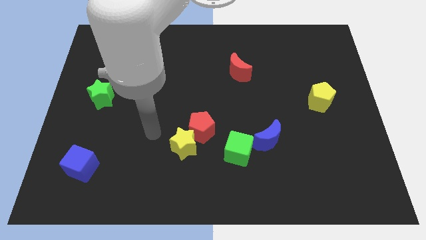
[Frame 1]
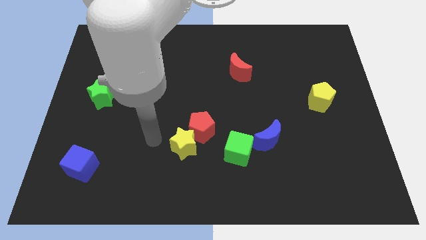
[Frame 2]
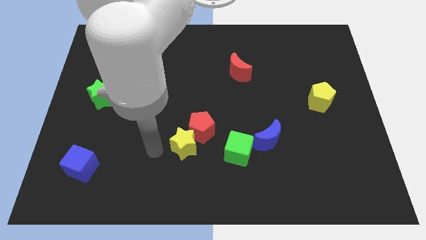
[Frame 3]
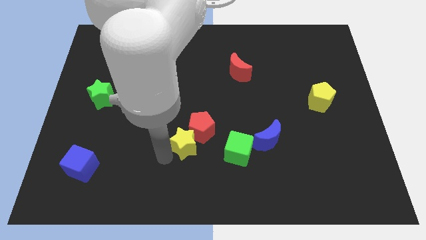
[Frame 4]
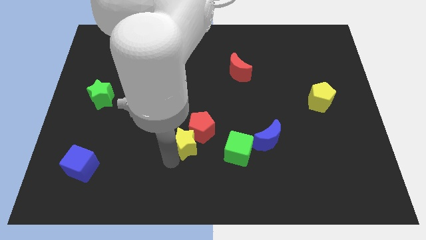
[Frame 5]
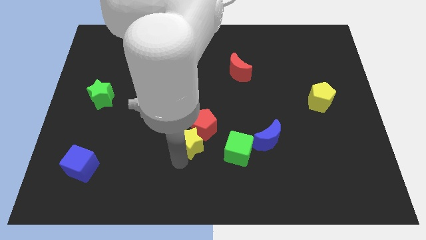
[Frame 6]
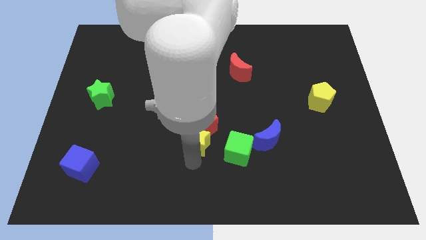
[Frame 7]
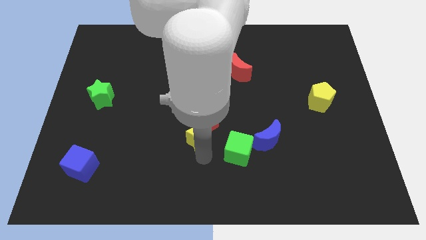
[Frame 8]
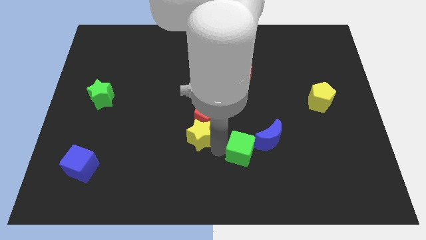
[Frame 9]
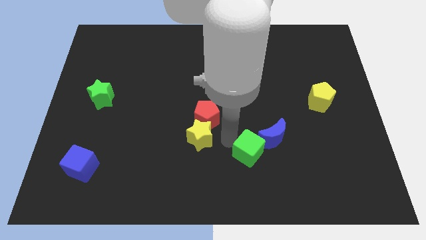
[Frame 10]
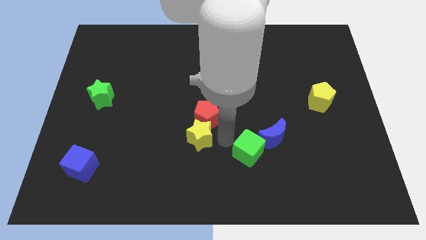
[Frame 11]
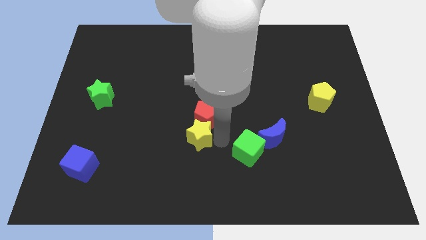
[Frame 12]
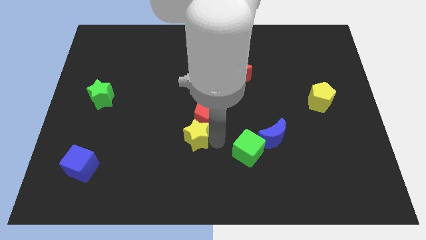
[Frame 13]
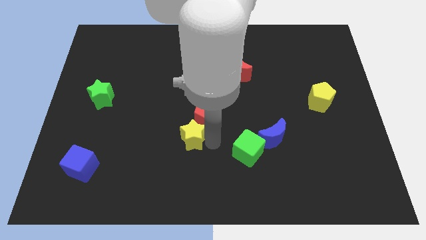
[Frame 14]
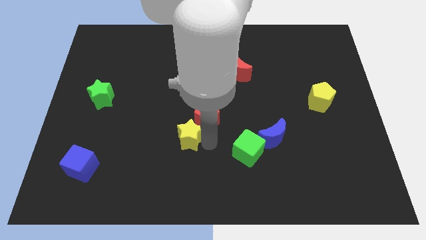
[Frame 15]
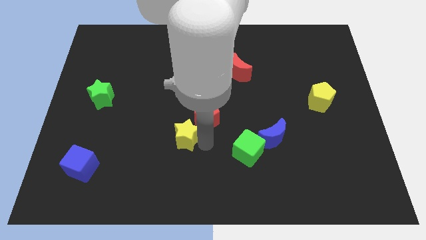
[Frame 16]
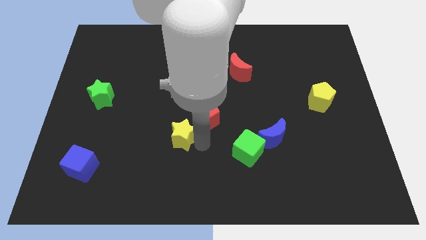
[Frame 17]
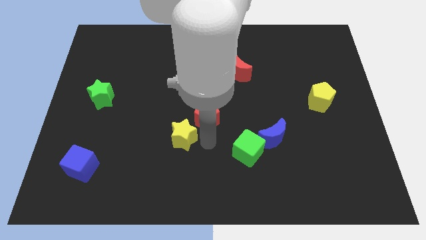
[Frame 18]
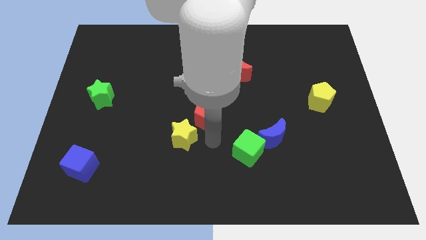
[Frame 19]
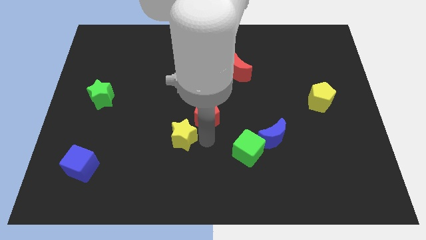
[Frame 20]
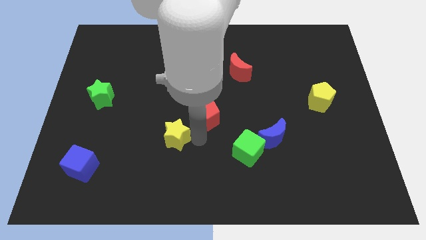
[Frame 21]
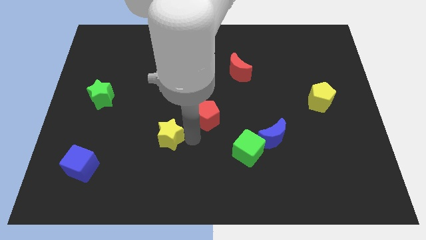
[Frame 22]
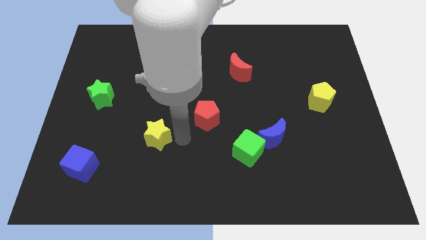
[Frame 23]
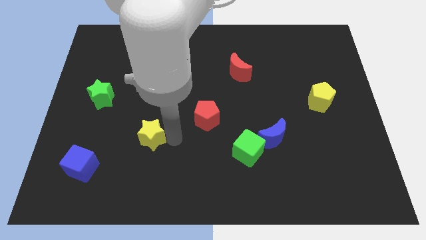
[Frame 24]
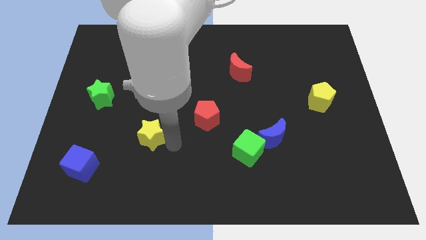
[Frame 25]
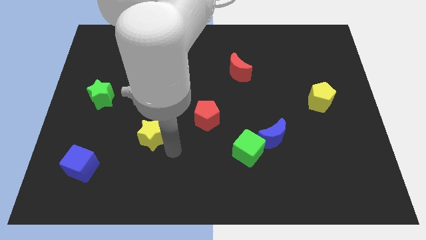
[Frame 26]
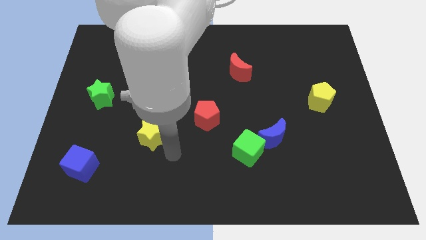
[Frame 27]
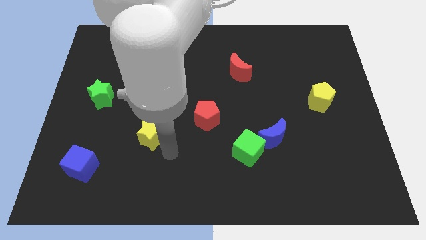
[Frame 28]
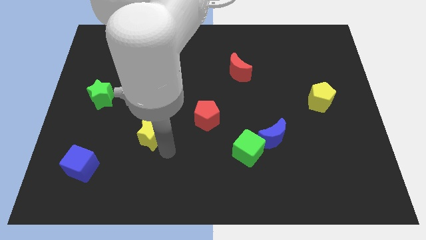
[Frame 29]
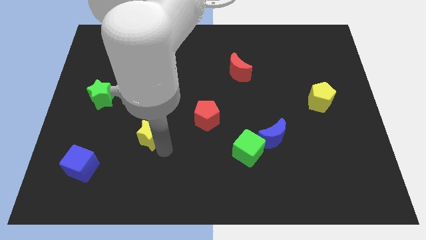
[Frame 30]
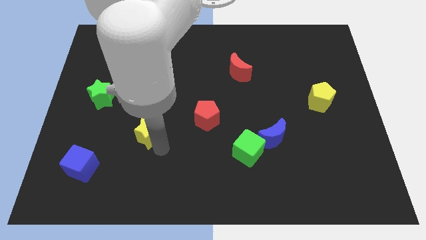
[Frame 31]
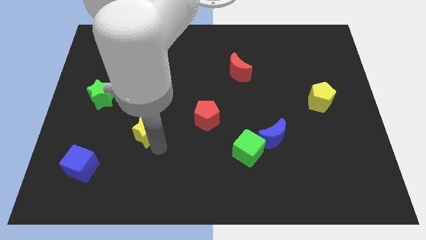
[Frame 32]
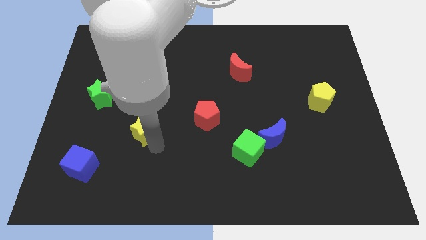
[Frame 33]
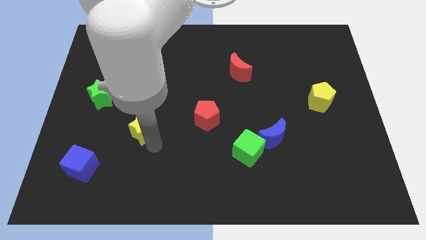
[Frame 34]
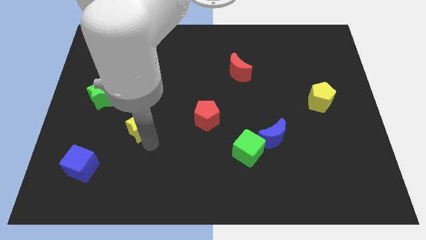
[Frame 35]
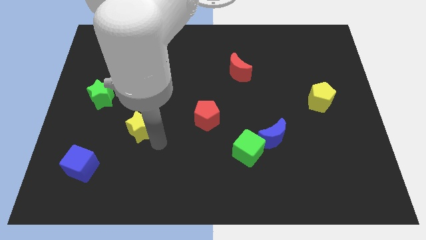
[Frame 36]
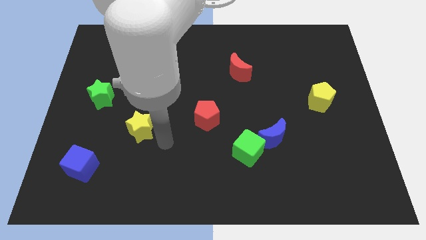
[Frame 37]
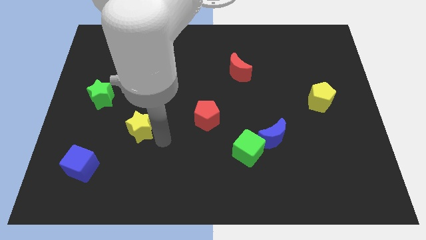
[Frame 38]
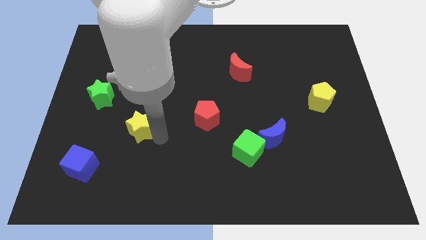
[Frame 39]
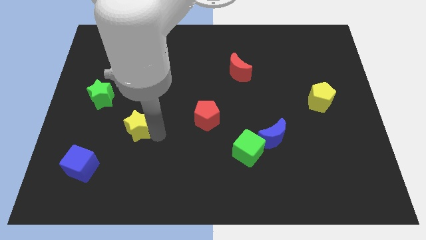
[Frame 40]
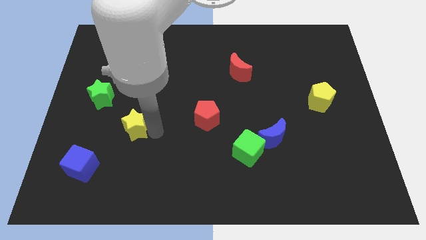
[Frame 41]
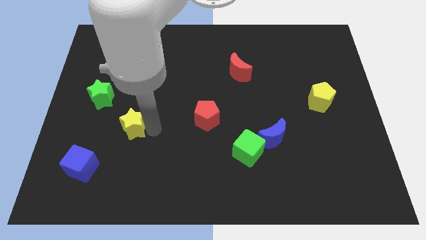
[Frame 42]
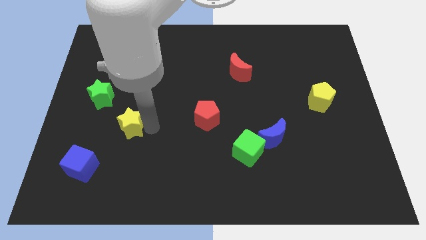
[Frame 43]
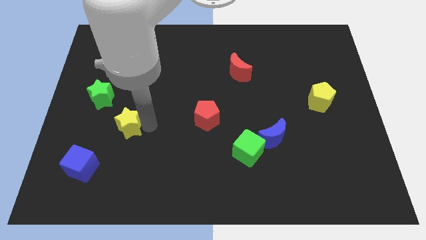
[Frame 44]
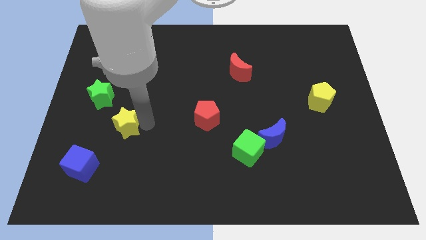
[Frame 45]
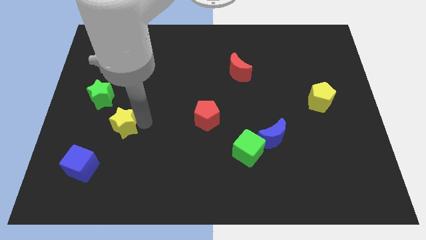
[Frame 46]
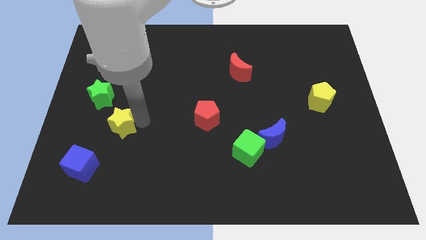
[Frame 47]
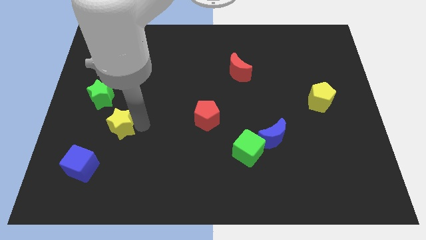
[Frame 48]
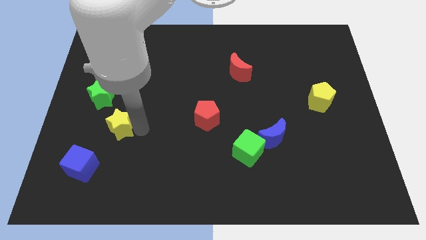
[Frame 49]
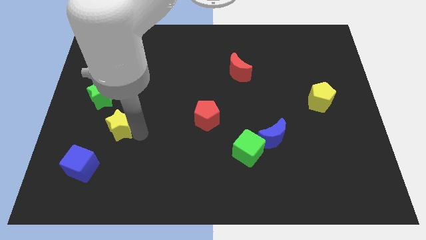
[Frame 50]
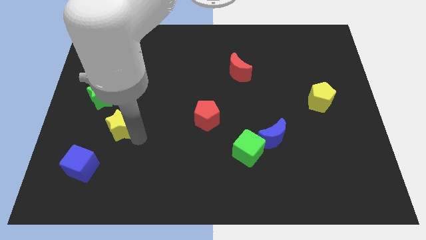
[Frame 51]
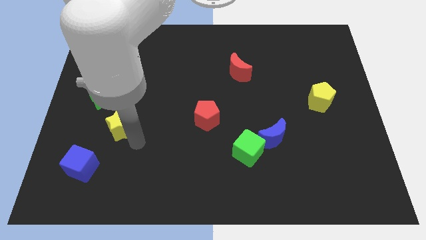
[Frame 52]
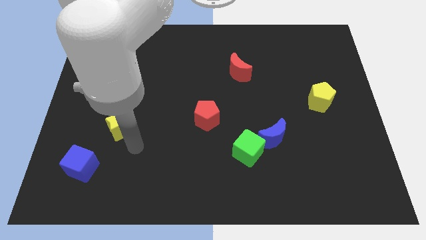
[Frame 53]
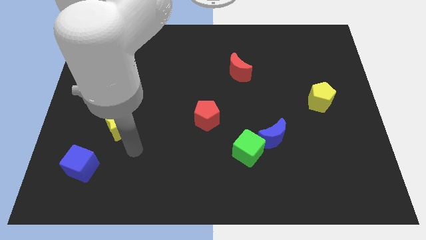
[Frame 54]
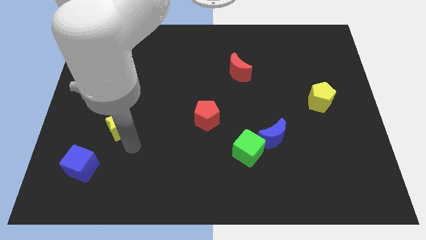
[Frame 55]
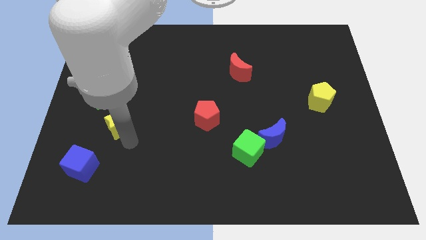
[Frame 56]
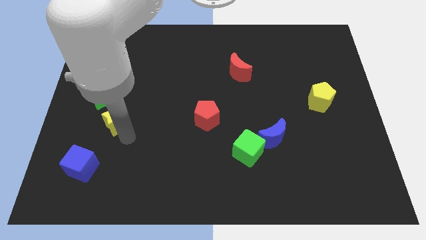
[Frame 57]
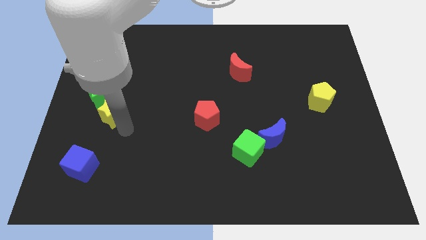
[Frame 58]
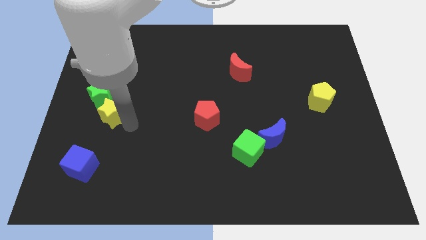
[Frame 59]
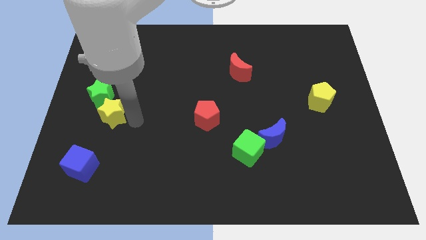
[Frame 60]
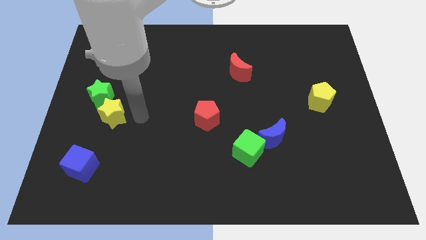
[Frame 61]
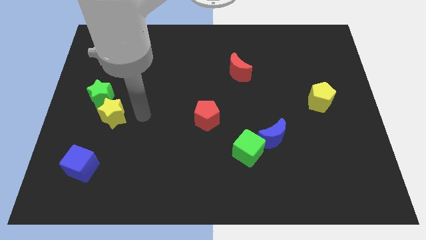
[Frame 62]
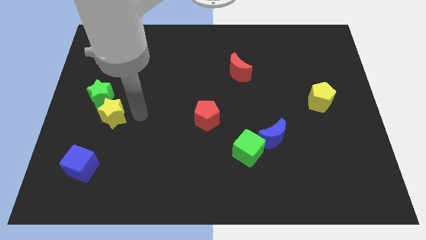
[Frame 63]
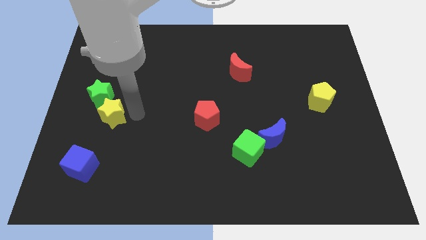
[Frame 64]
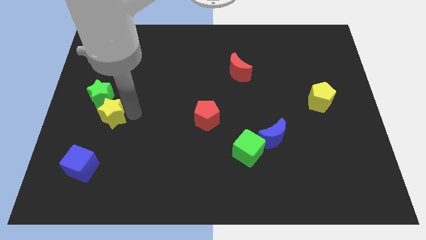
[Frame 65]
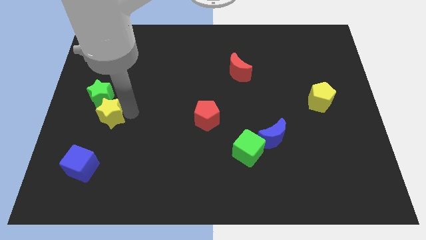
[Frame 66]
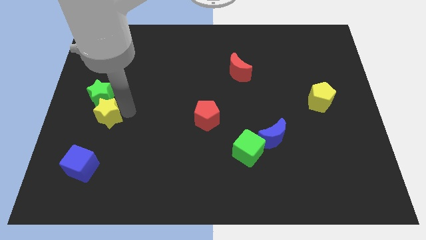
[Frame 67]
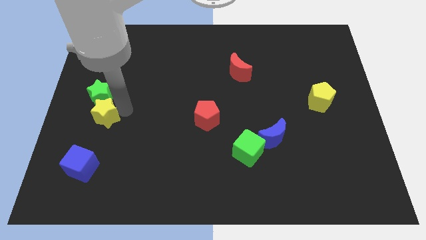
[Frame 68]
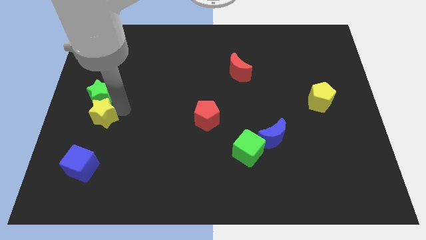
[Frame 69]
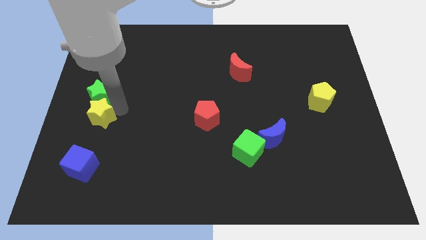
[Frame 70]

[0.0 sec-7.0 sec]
move the yellow star to the left side
